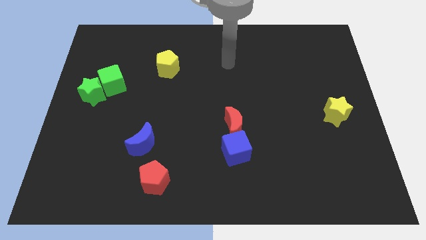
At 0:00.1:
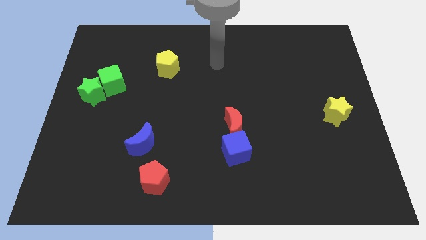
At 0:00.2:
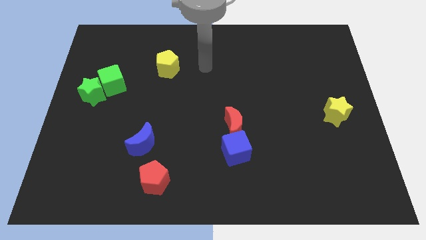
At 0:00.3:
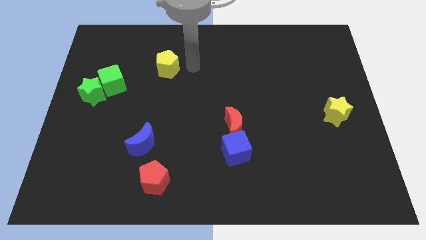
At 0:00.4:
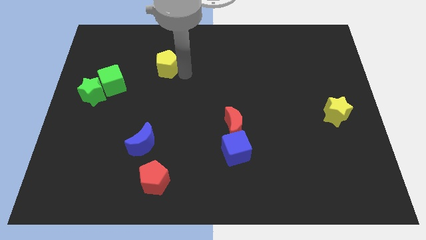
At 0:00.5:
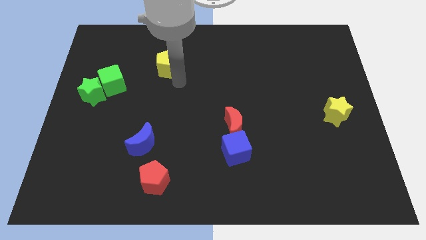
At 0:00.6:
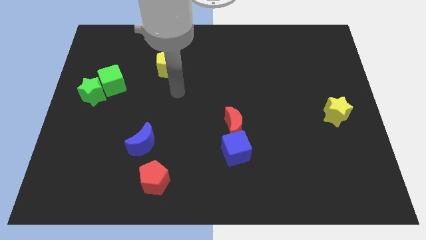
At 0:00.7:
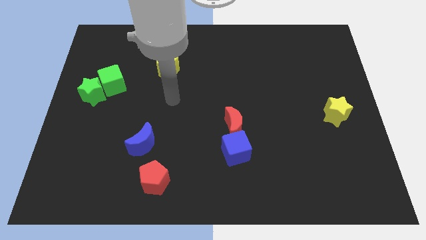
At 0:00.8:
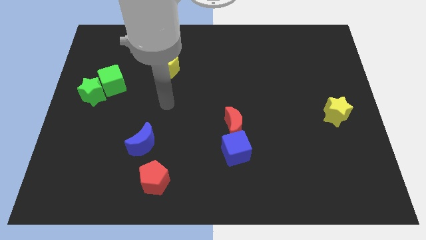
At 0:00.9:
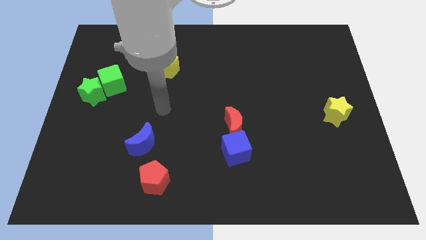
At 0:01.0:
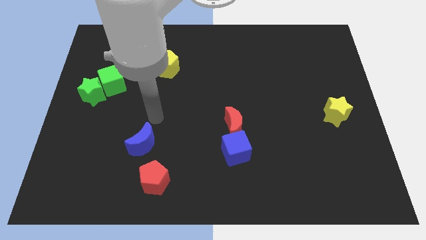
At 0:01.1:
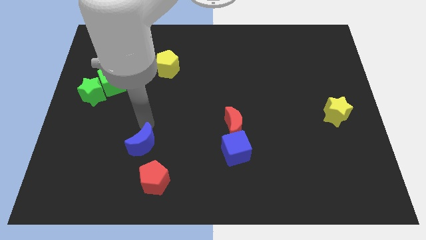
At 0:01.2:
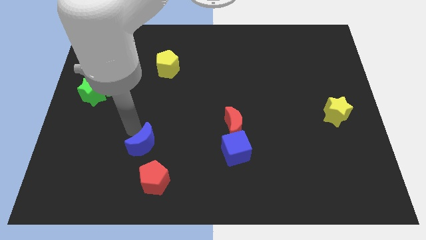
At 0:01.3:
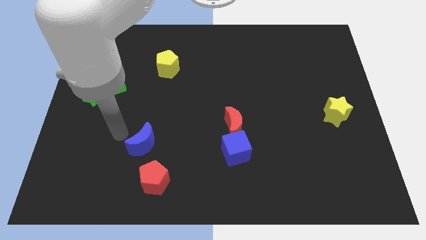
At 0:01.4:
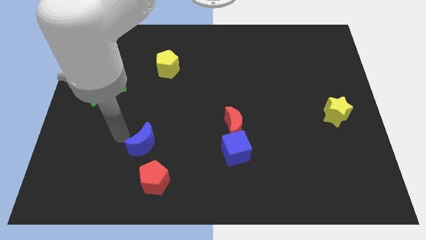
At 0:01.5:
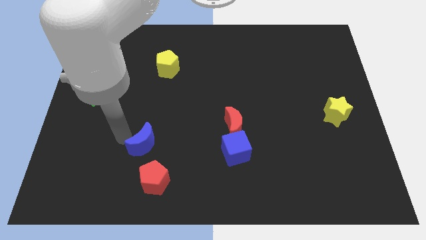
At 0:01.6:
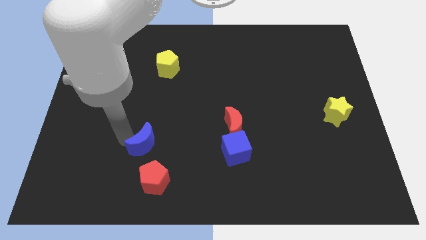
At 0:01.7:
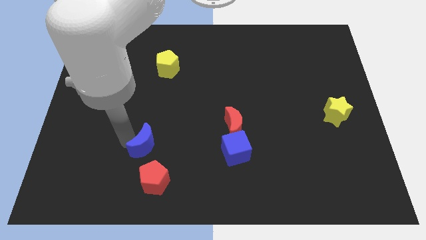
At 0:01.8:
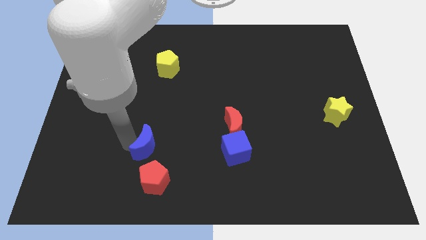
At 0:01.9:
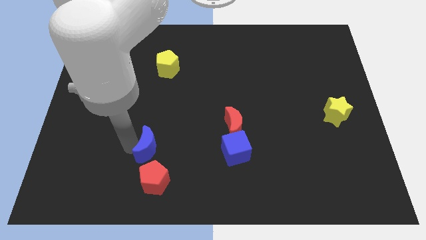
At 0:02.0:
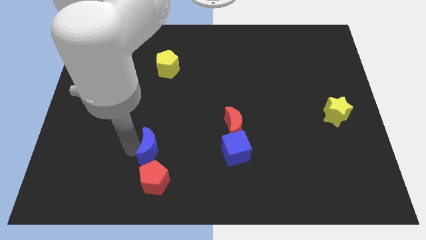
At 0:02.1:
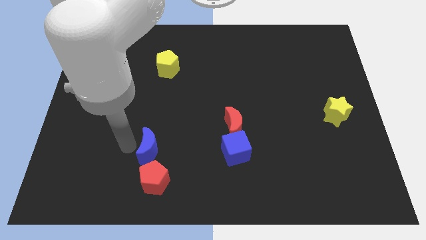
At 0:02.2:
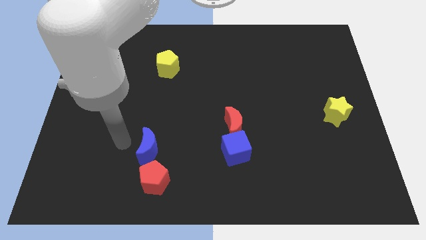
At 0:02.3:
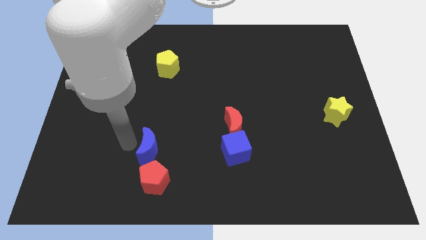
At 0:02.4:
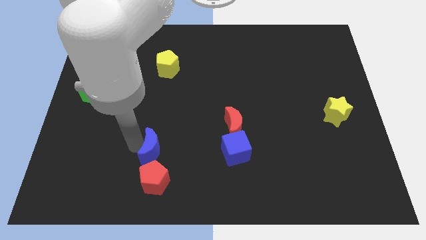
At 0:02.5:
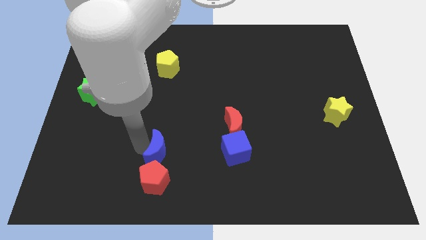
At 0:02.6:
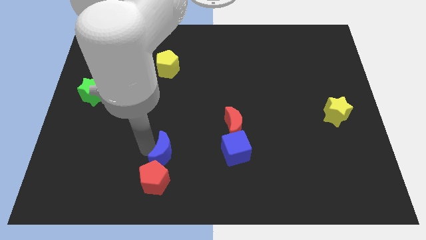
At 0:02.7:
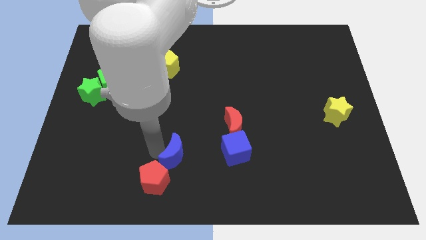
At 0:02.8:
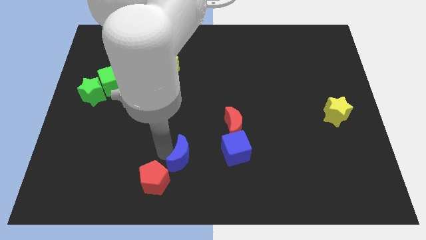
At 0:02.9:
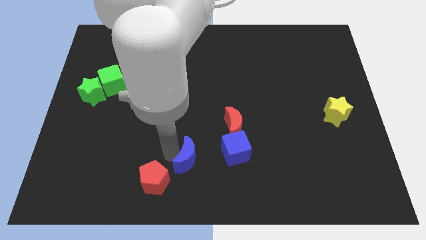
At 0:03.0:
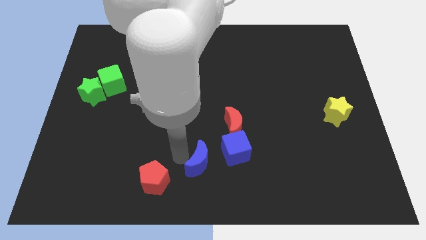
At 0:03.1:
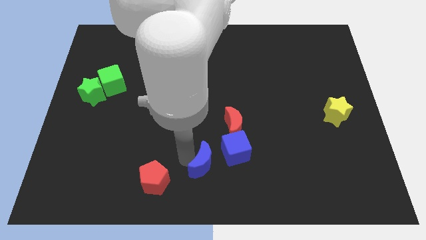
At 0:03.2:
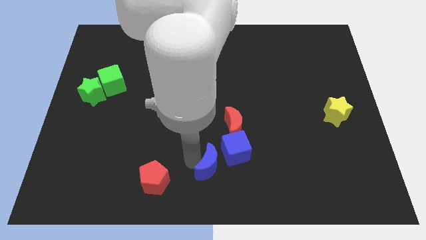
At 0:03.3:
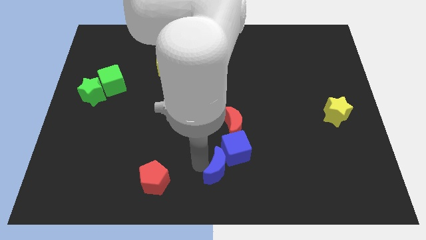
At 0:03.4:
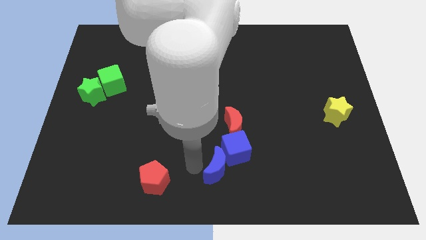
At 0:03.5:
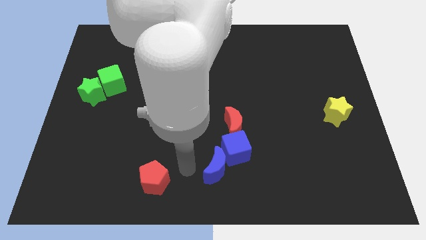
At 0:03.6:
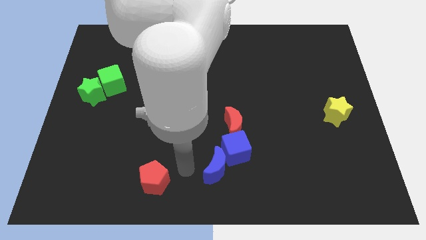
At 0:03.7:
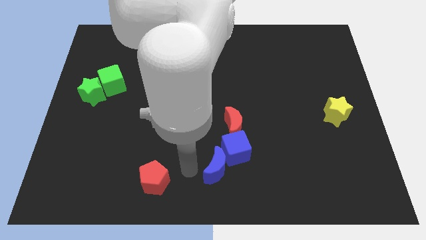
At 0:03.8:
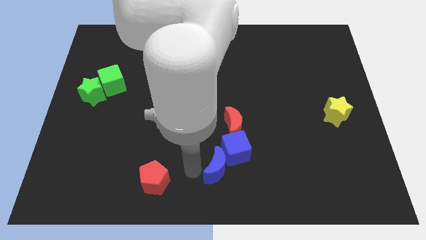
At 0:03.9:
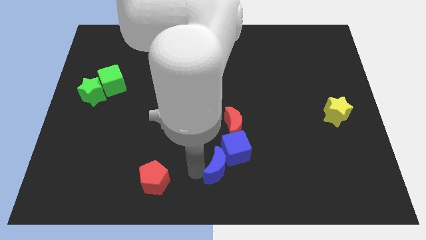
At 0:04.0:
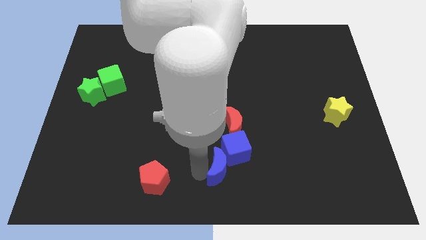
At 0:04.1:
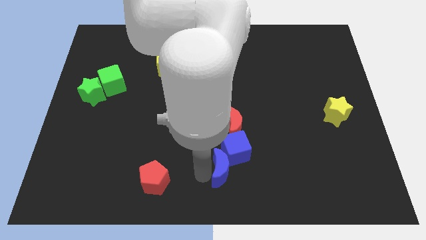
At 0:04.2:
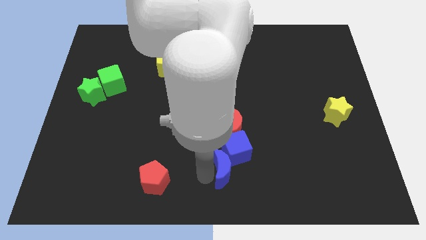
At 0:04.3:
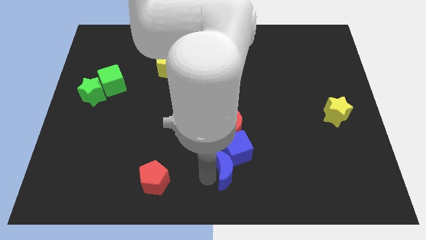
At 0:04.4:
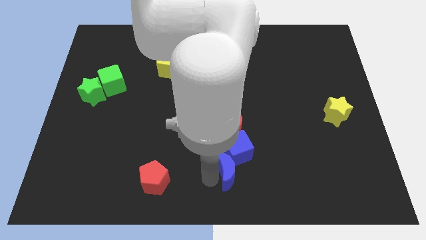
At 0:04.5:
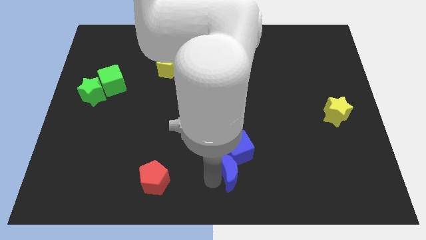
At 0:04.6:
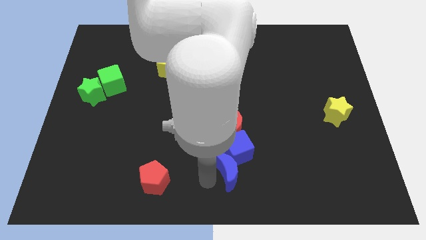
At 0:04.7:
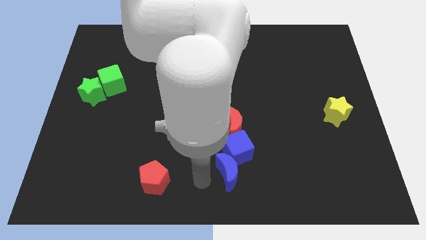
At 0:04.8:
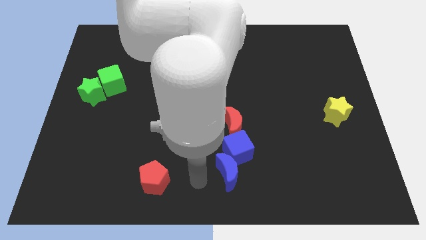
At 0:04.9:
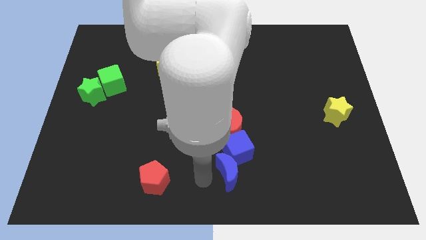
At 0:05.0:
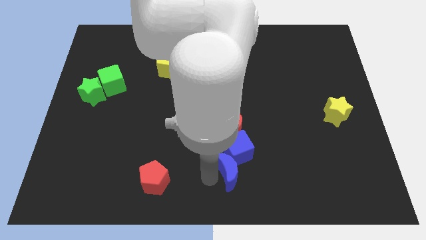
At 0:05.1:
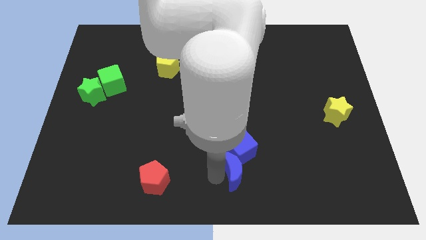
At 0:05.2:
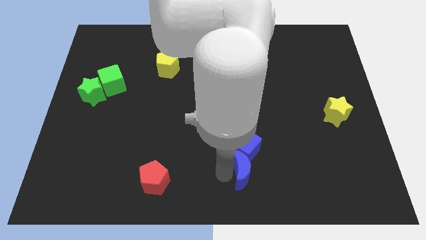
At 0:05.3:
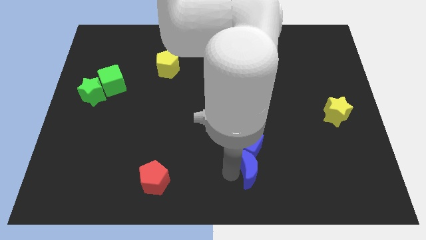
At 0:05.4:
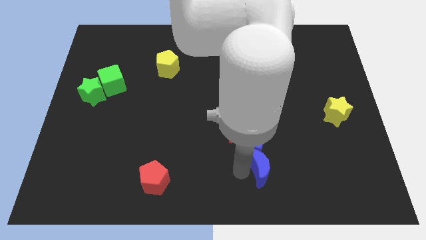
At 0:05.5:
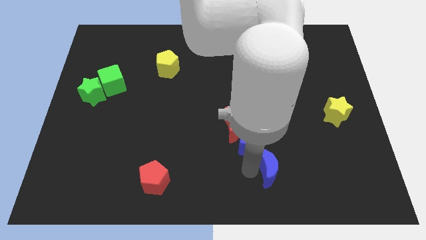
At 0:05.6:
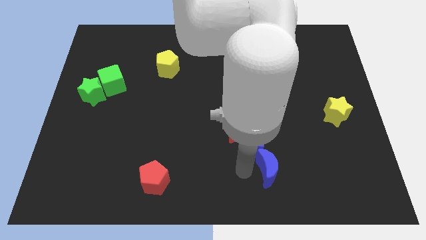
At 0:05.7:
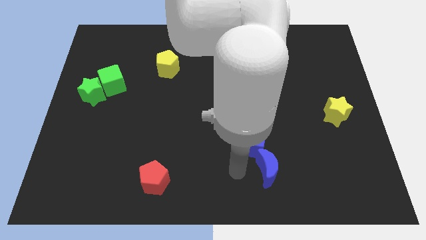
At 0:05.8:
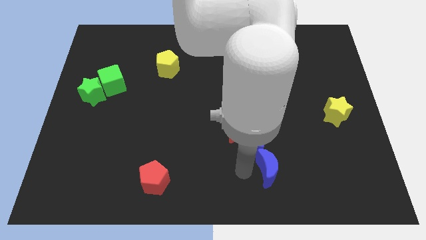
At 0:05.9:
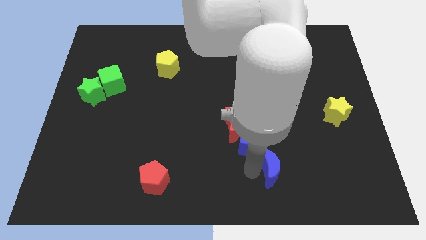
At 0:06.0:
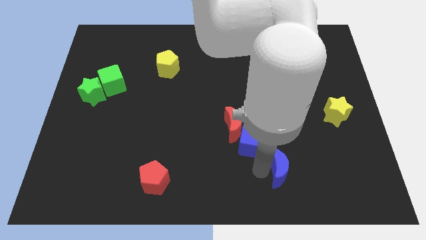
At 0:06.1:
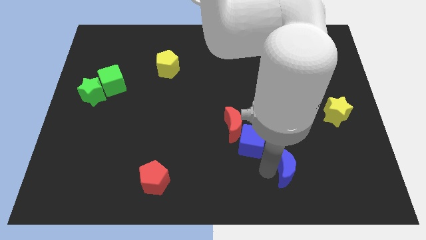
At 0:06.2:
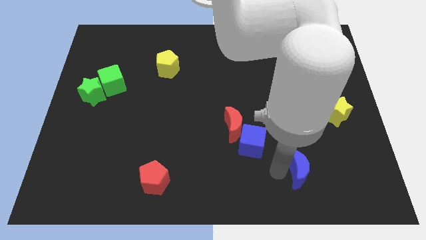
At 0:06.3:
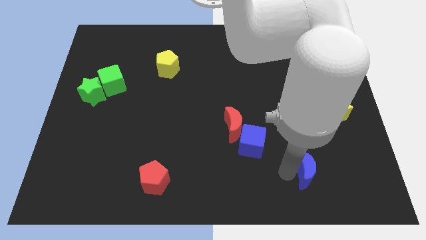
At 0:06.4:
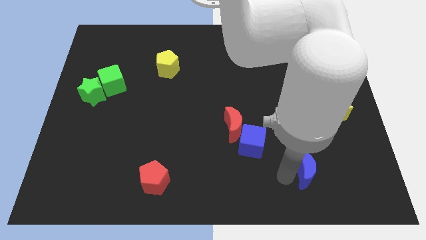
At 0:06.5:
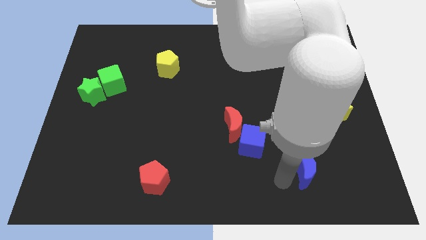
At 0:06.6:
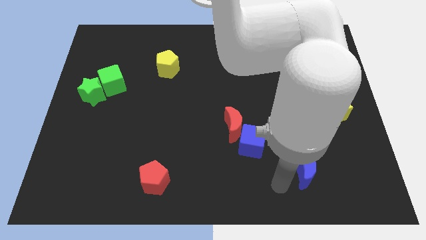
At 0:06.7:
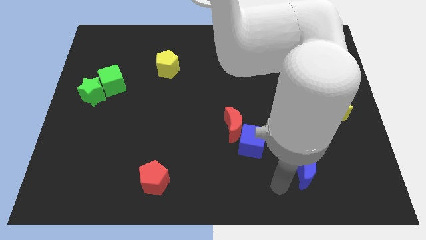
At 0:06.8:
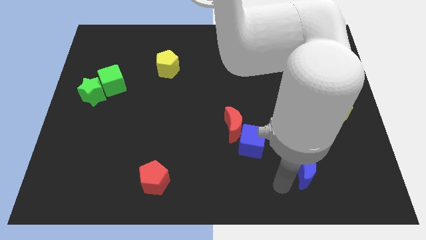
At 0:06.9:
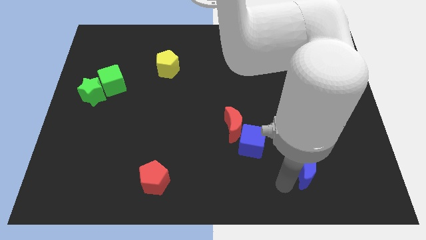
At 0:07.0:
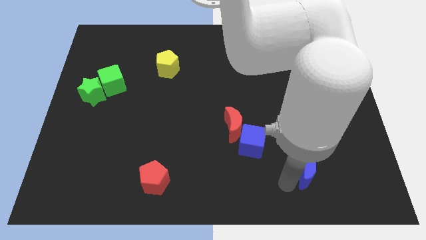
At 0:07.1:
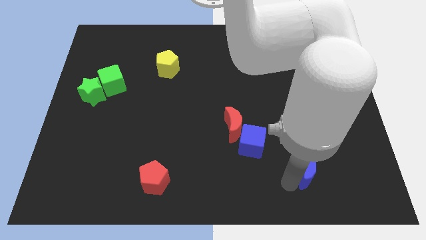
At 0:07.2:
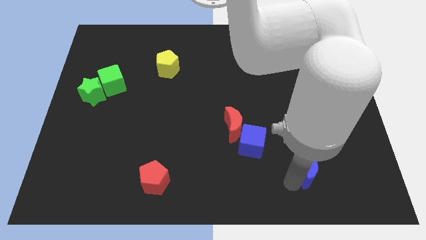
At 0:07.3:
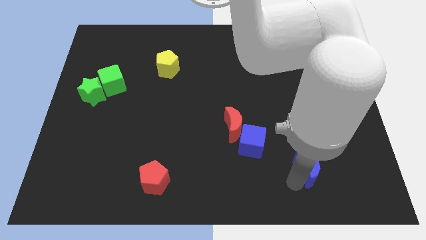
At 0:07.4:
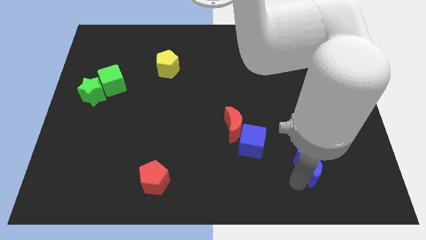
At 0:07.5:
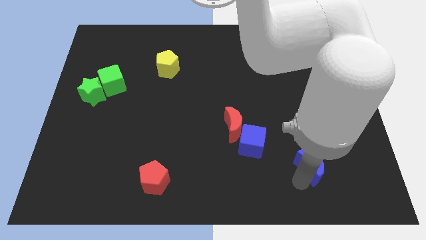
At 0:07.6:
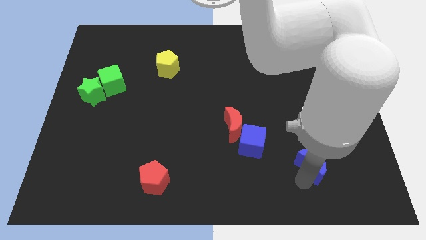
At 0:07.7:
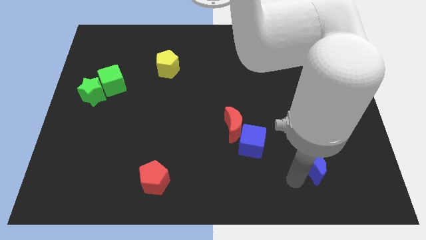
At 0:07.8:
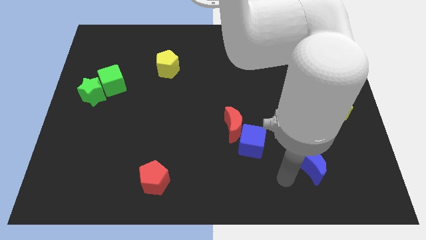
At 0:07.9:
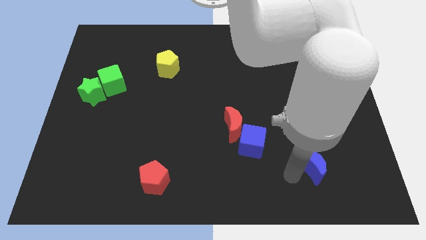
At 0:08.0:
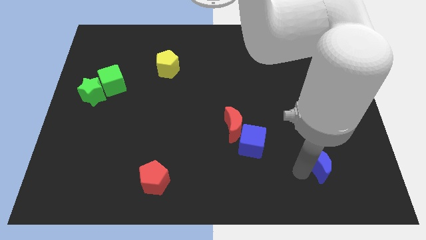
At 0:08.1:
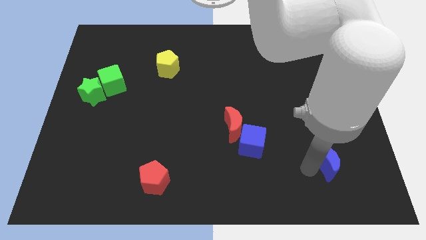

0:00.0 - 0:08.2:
slide the blue moon to the bottom of the yellow star
